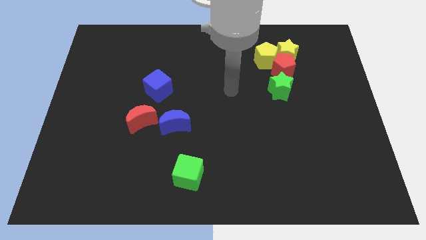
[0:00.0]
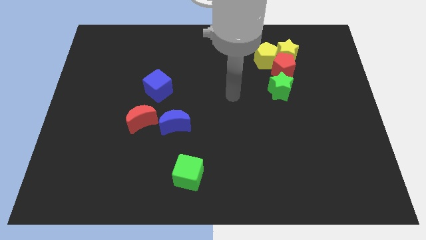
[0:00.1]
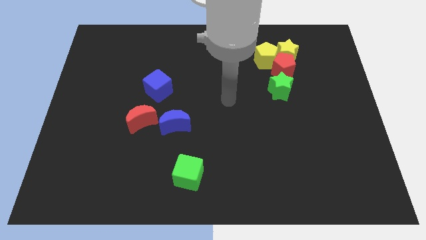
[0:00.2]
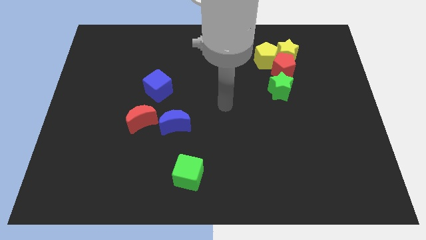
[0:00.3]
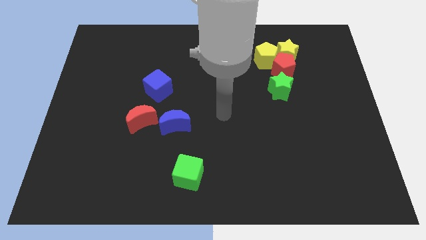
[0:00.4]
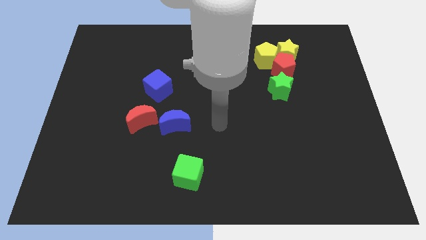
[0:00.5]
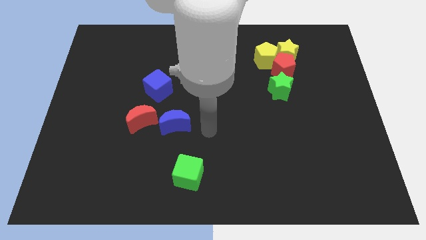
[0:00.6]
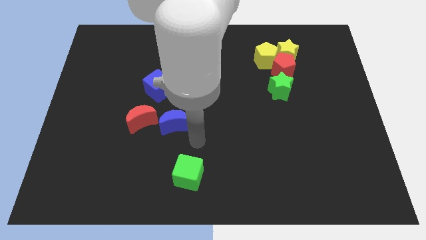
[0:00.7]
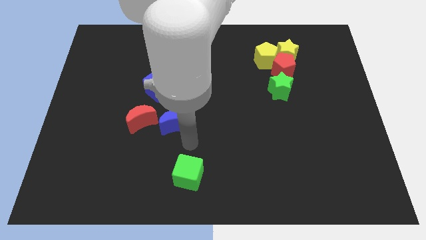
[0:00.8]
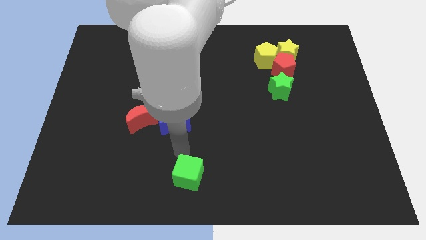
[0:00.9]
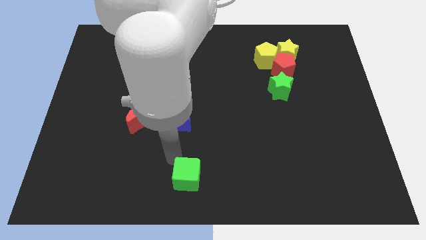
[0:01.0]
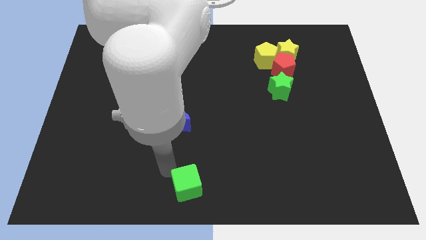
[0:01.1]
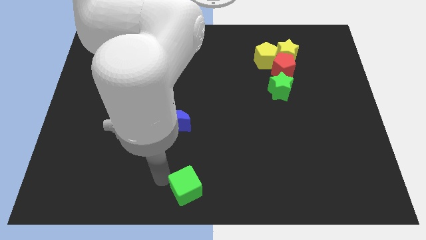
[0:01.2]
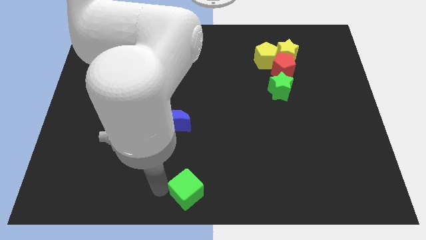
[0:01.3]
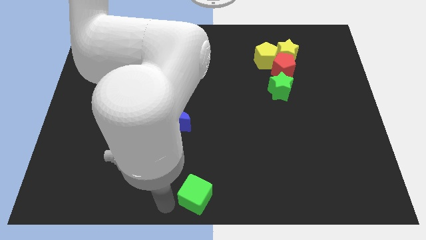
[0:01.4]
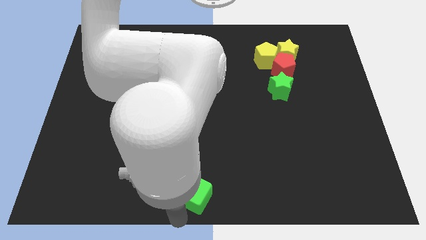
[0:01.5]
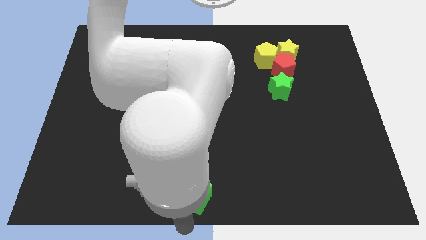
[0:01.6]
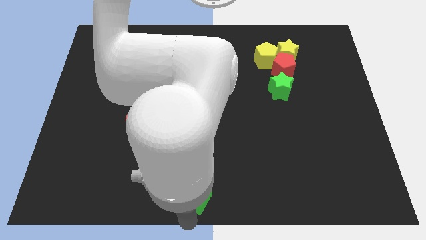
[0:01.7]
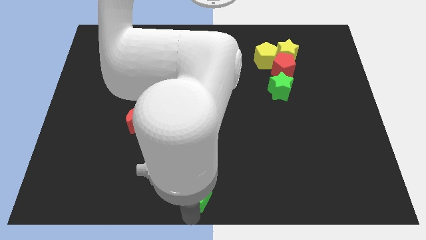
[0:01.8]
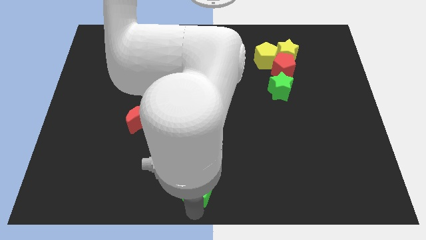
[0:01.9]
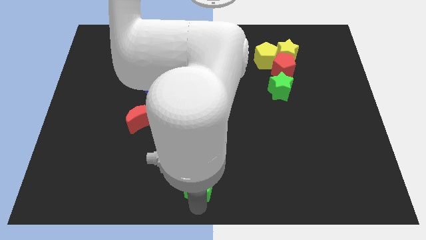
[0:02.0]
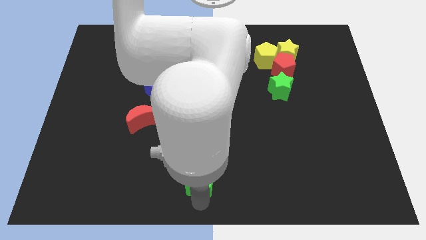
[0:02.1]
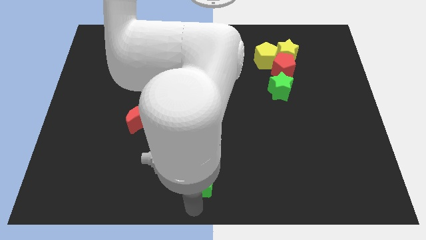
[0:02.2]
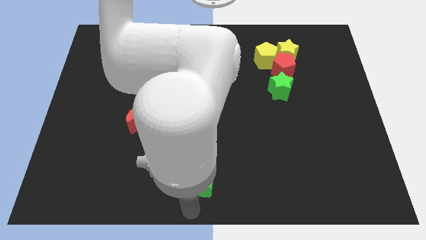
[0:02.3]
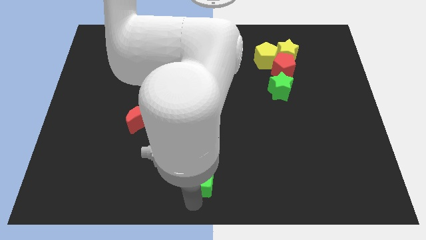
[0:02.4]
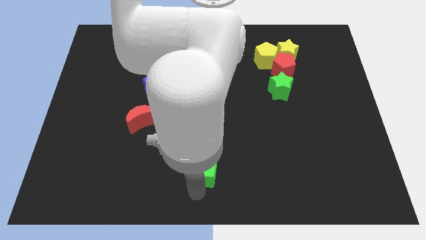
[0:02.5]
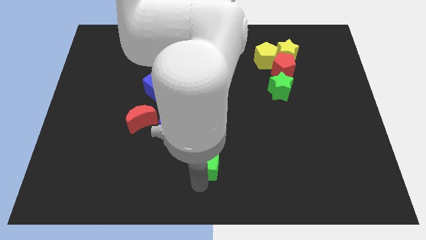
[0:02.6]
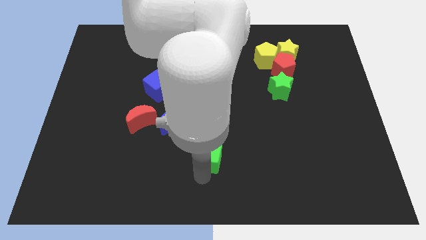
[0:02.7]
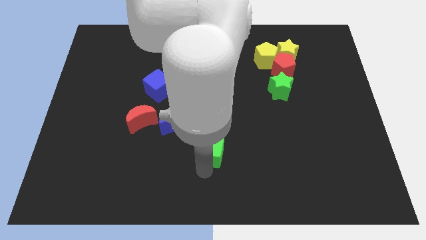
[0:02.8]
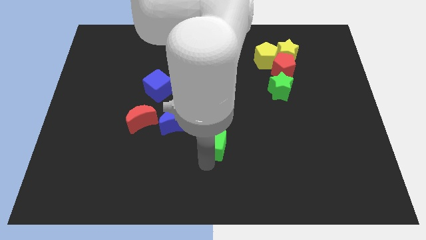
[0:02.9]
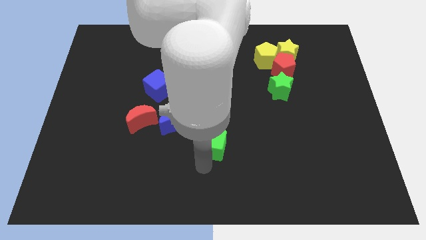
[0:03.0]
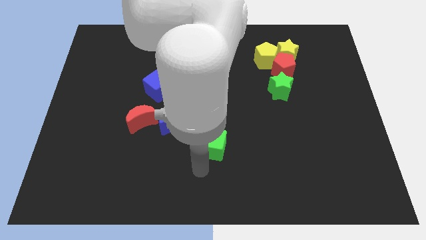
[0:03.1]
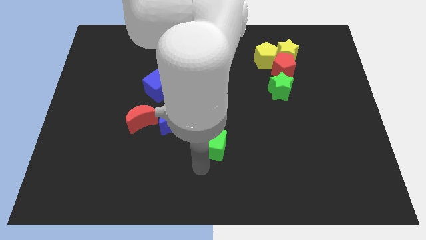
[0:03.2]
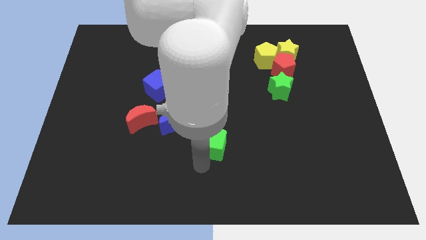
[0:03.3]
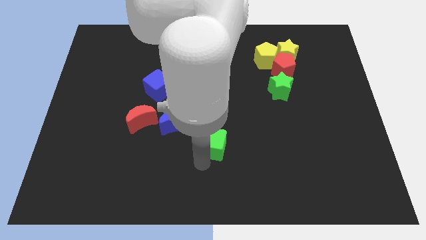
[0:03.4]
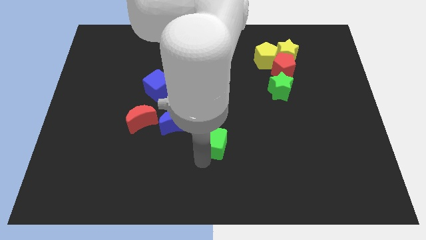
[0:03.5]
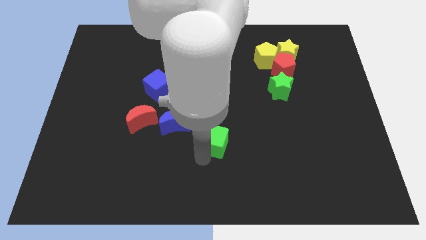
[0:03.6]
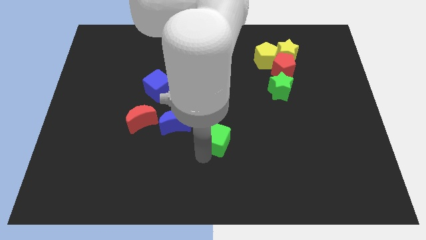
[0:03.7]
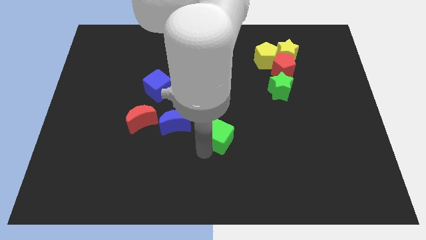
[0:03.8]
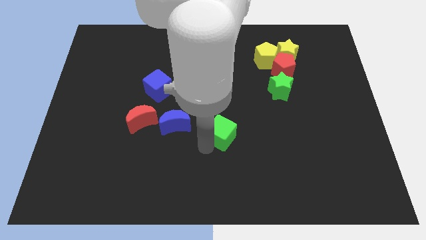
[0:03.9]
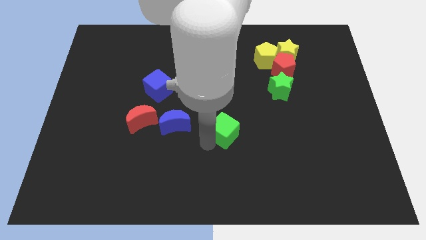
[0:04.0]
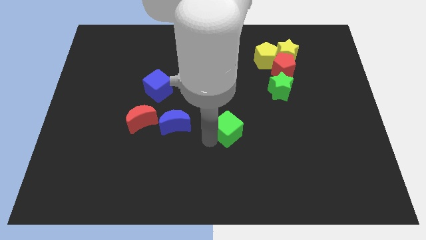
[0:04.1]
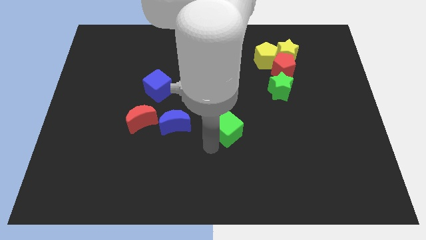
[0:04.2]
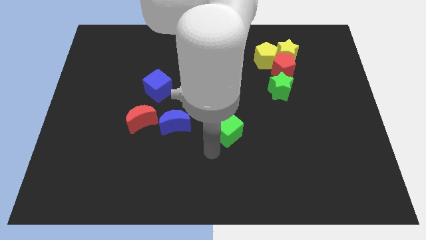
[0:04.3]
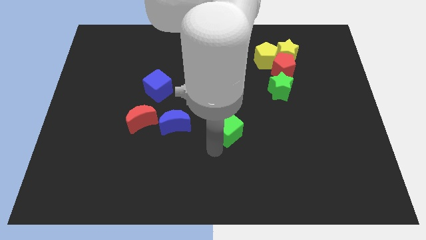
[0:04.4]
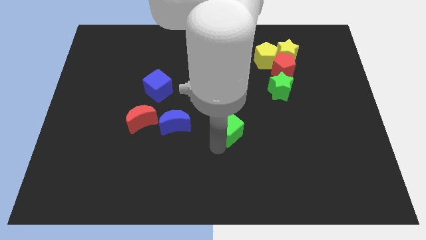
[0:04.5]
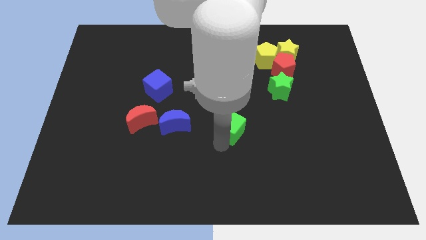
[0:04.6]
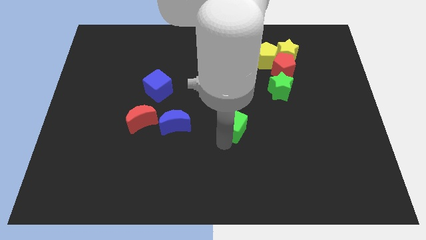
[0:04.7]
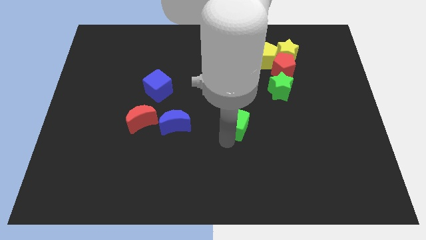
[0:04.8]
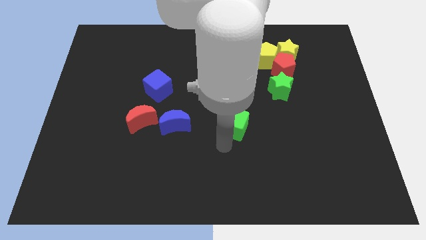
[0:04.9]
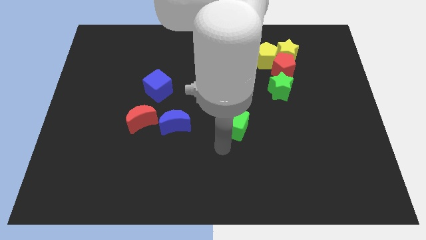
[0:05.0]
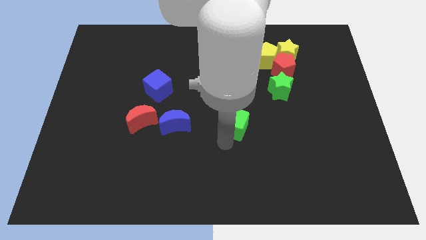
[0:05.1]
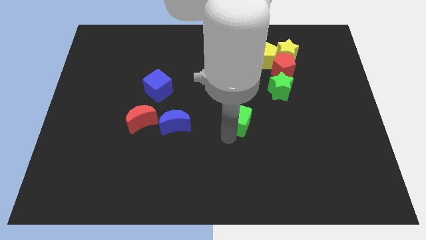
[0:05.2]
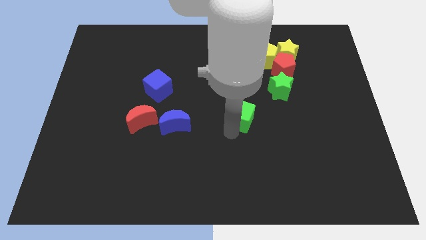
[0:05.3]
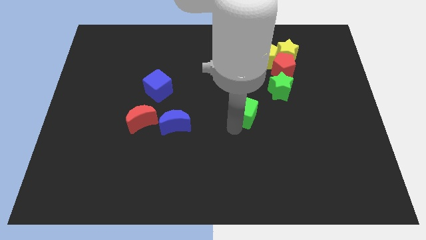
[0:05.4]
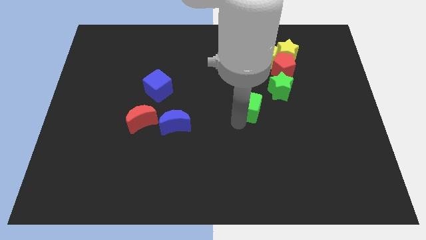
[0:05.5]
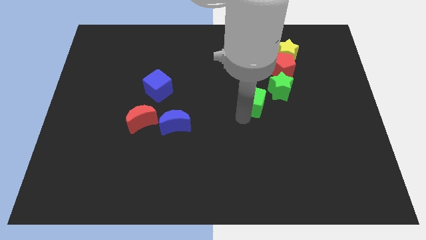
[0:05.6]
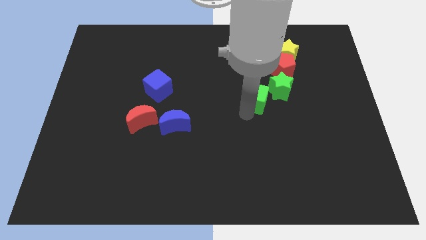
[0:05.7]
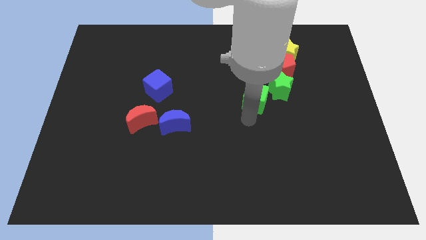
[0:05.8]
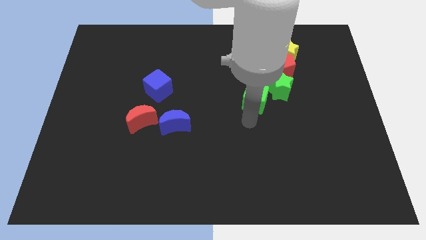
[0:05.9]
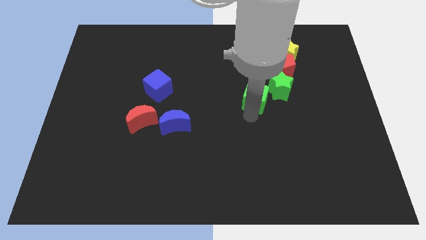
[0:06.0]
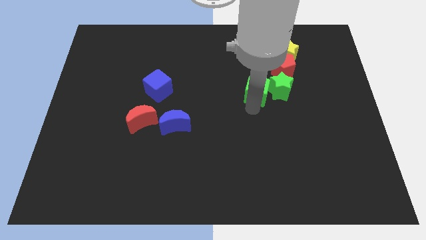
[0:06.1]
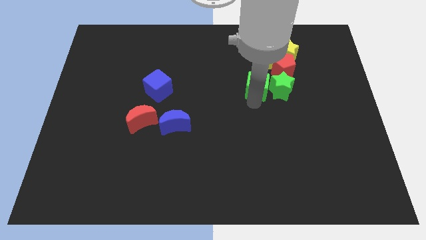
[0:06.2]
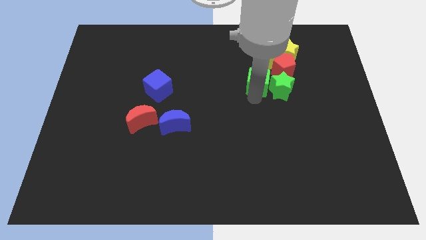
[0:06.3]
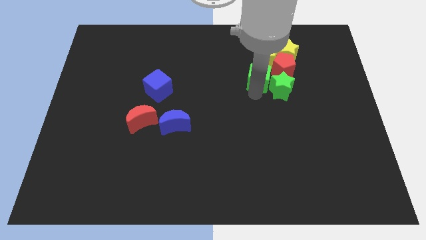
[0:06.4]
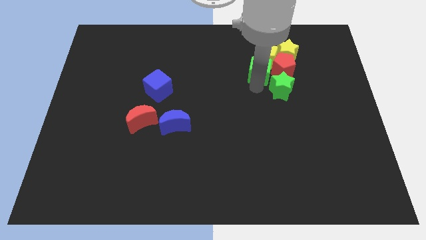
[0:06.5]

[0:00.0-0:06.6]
push the green cube towards the yellow pentagon

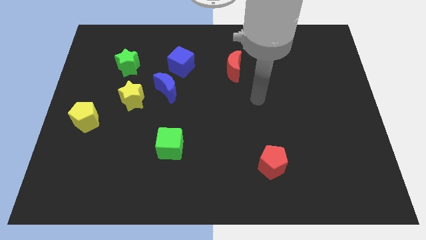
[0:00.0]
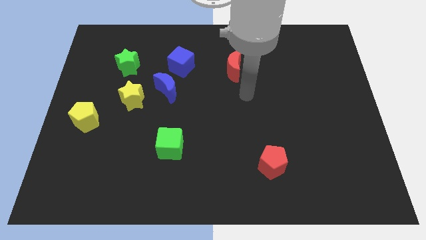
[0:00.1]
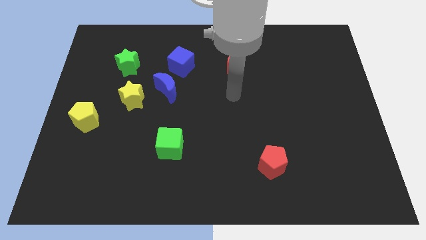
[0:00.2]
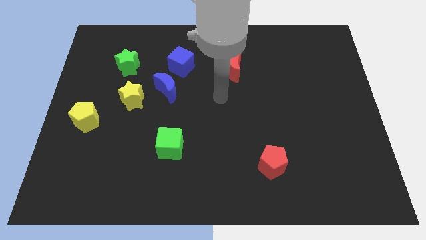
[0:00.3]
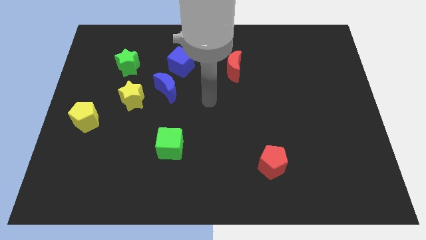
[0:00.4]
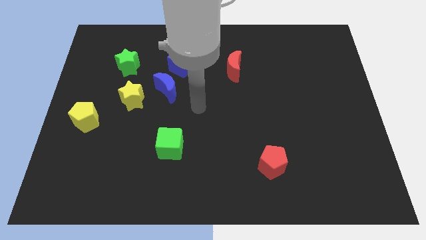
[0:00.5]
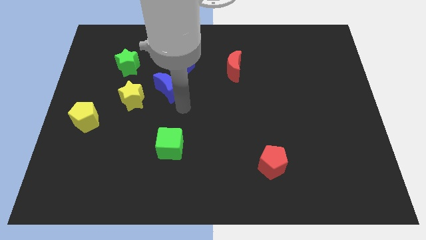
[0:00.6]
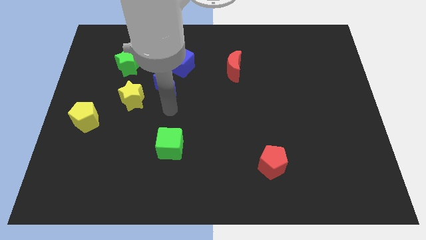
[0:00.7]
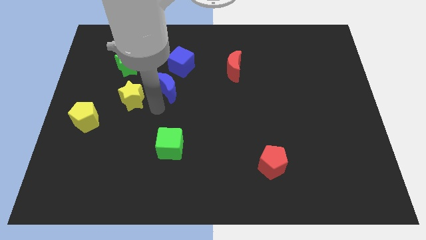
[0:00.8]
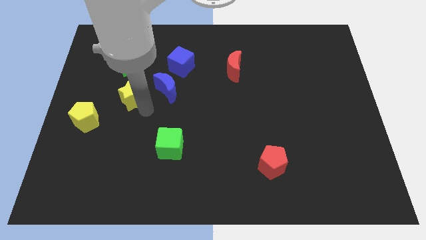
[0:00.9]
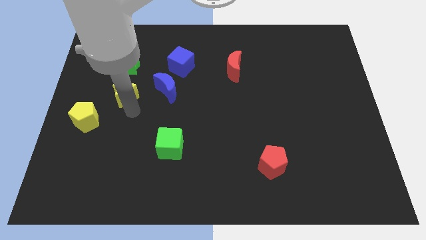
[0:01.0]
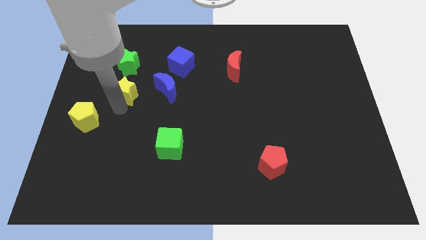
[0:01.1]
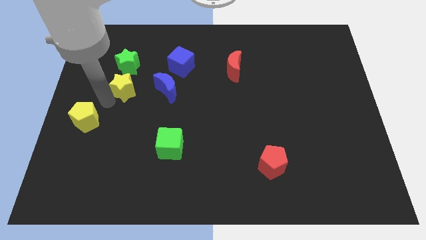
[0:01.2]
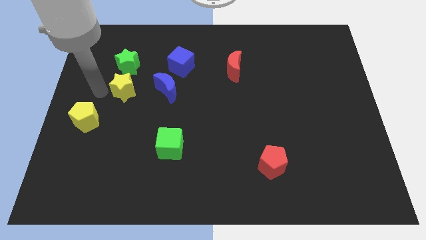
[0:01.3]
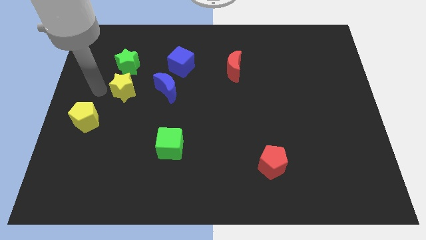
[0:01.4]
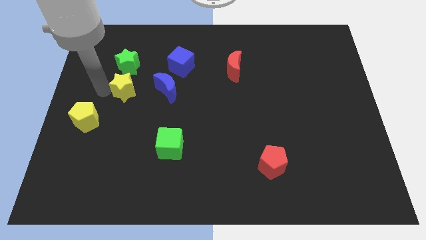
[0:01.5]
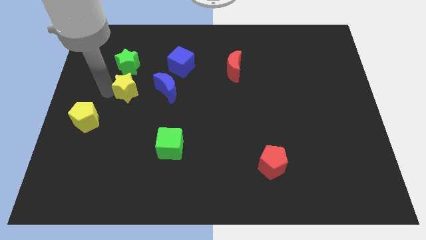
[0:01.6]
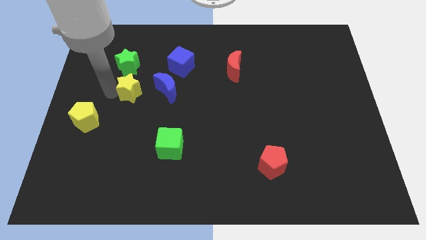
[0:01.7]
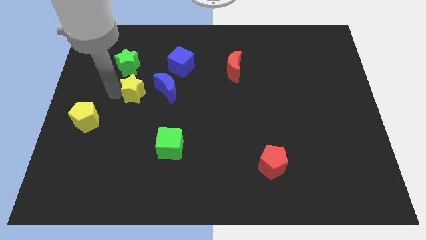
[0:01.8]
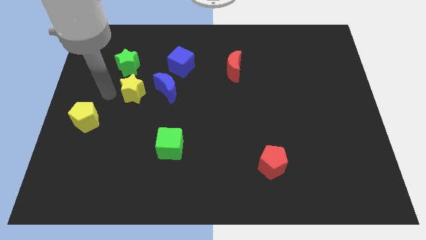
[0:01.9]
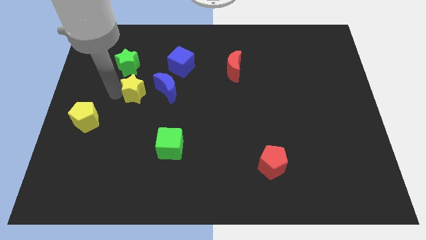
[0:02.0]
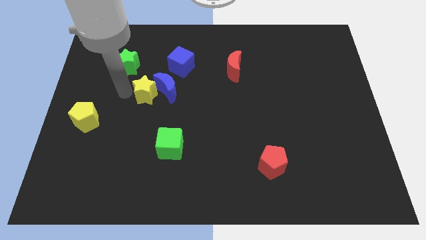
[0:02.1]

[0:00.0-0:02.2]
push the yellow star to the blue moon
